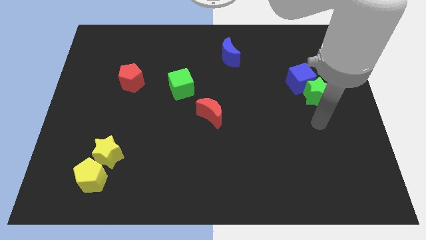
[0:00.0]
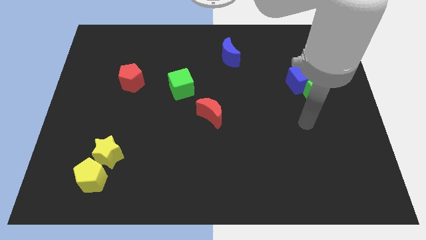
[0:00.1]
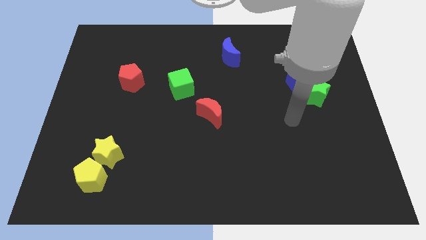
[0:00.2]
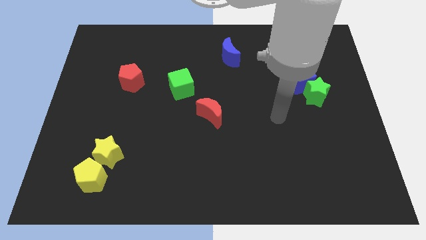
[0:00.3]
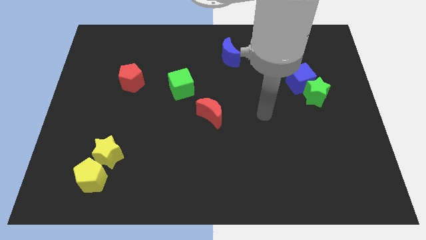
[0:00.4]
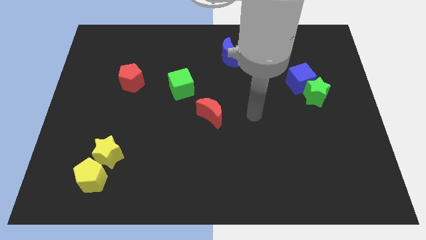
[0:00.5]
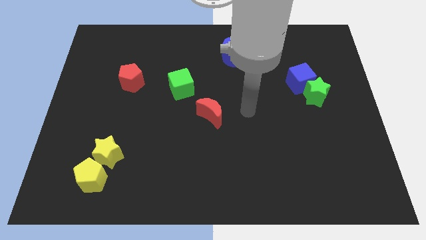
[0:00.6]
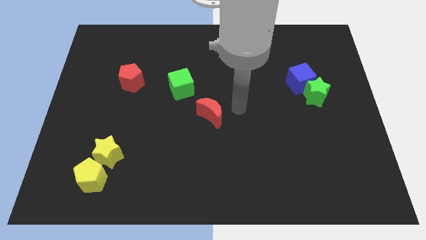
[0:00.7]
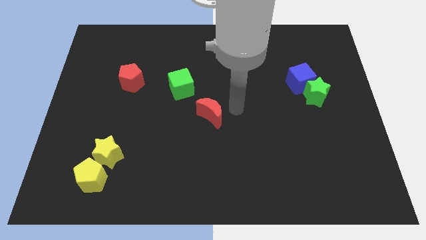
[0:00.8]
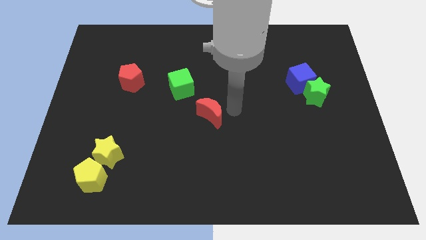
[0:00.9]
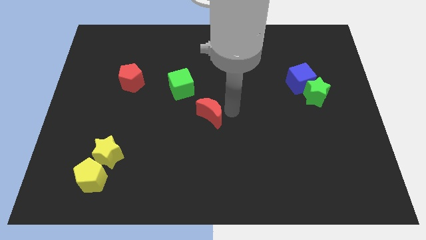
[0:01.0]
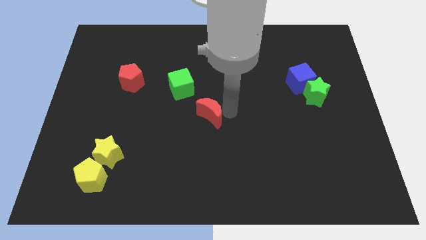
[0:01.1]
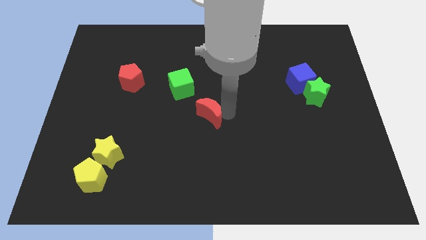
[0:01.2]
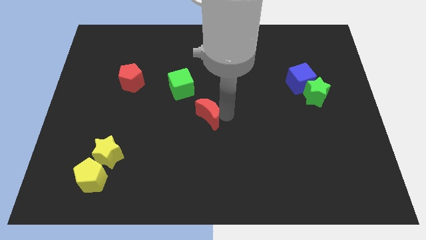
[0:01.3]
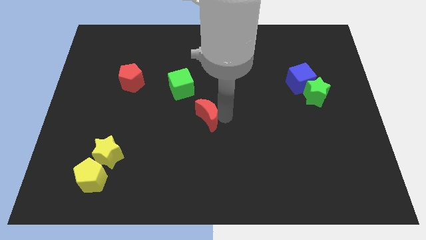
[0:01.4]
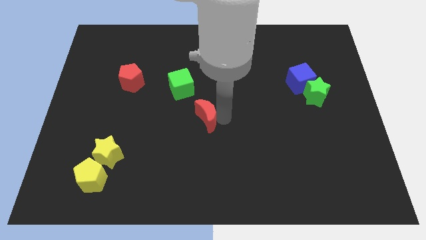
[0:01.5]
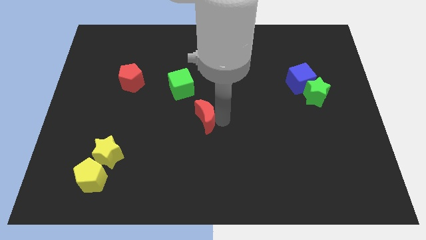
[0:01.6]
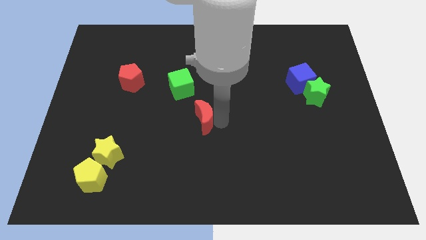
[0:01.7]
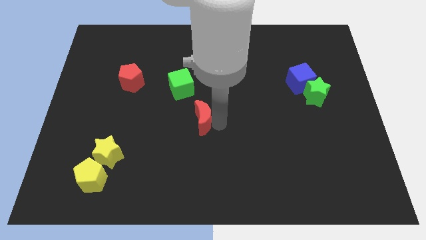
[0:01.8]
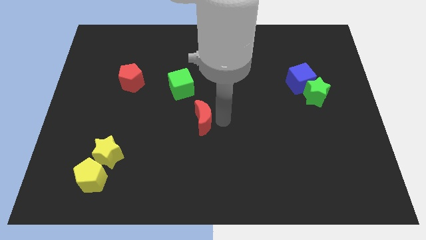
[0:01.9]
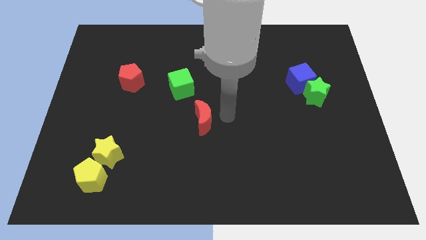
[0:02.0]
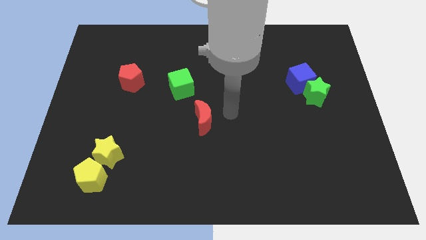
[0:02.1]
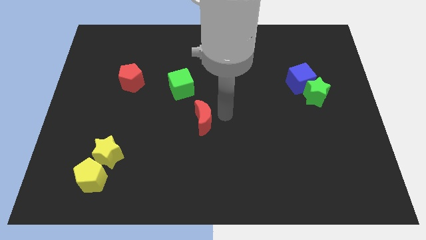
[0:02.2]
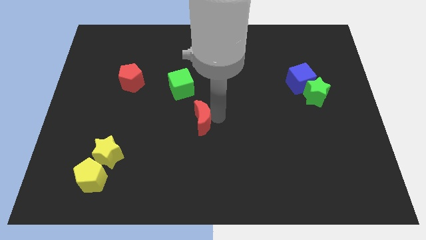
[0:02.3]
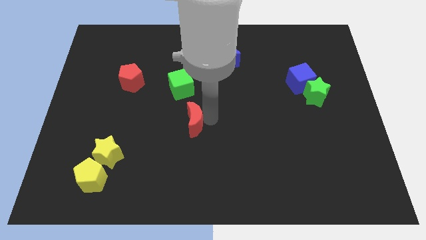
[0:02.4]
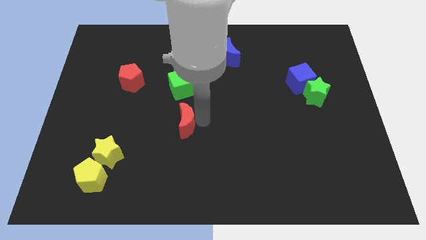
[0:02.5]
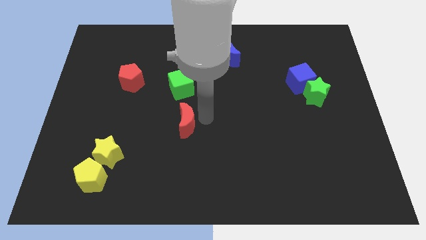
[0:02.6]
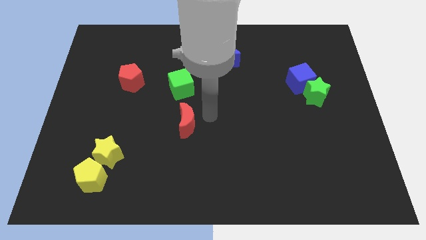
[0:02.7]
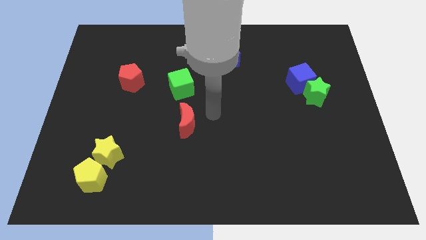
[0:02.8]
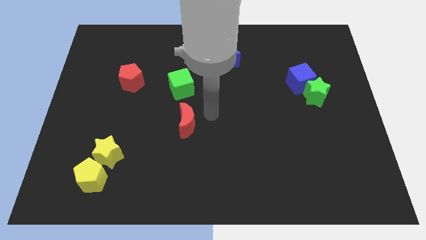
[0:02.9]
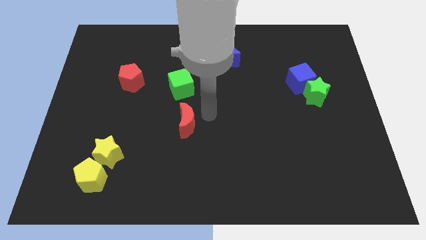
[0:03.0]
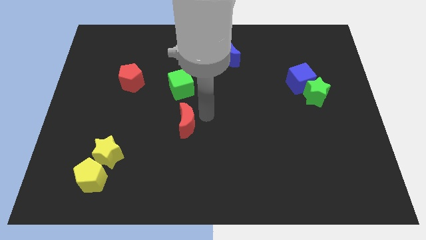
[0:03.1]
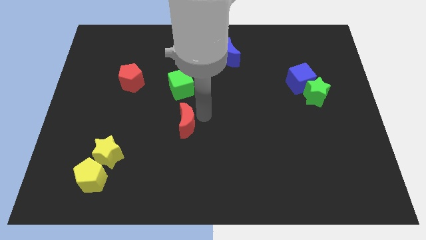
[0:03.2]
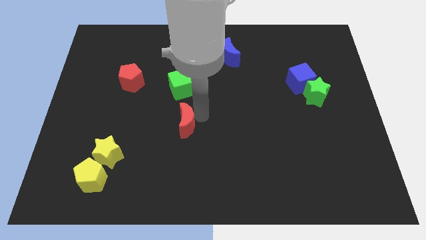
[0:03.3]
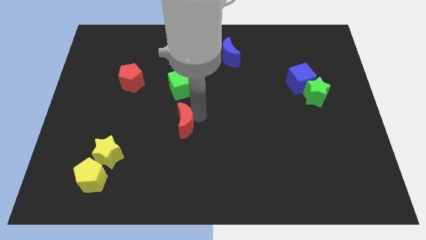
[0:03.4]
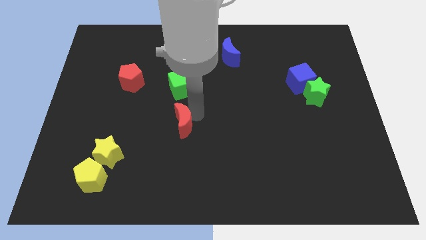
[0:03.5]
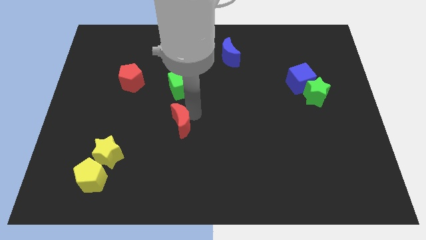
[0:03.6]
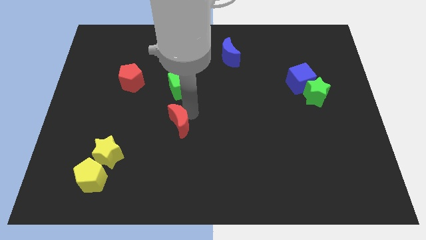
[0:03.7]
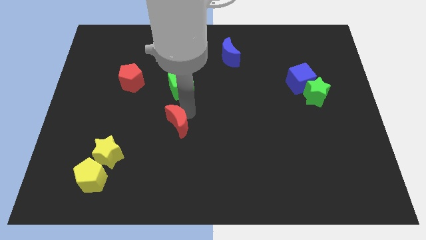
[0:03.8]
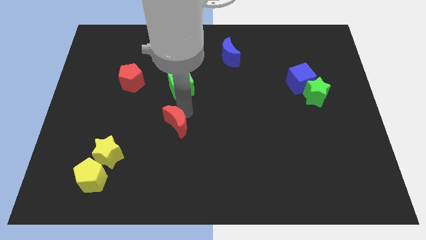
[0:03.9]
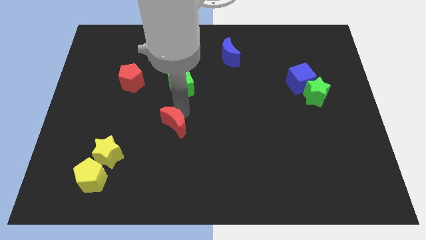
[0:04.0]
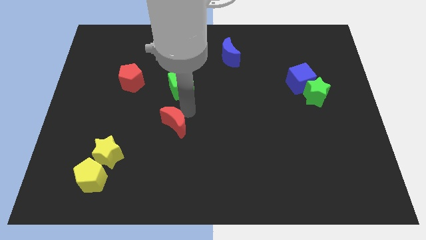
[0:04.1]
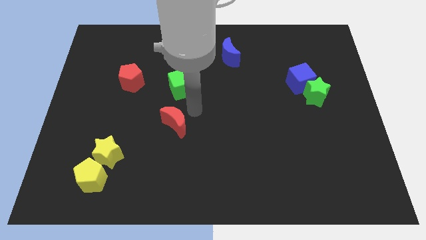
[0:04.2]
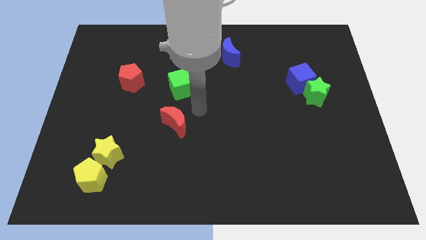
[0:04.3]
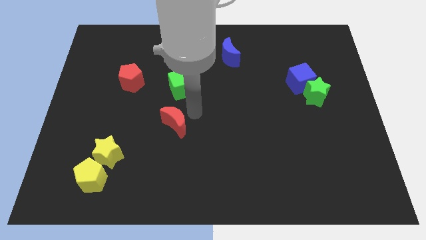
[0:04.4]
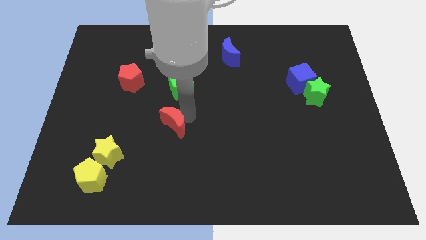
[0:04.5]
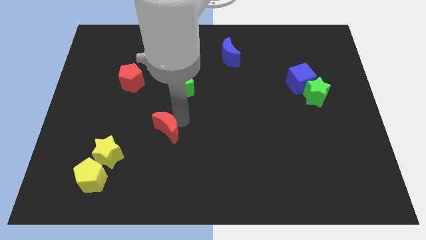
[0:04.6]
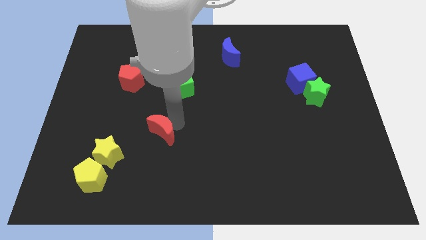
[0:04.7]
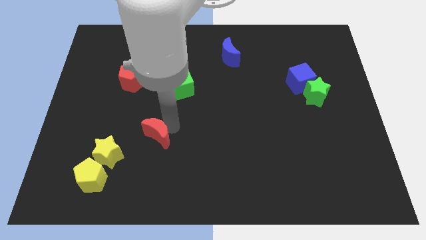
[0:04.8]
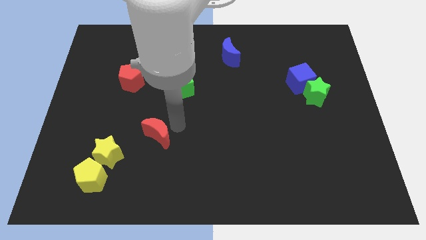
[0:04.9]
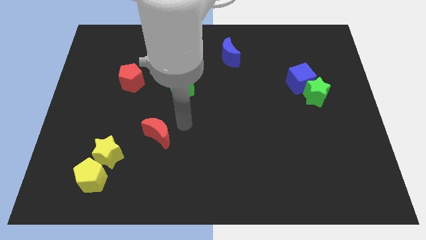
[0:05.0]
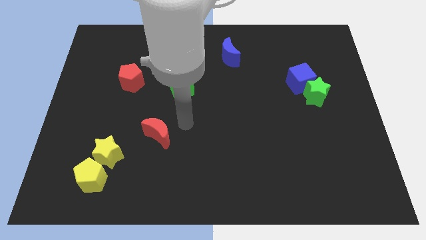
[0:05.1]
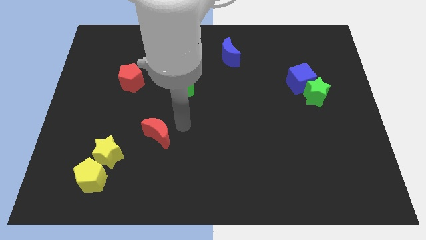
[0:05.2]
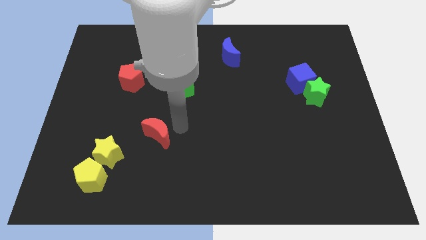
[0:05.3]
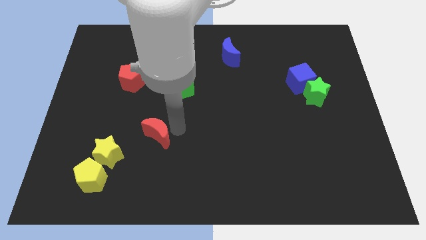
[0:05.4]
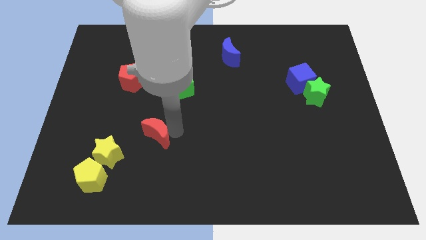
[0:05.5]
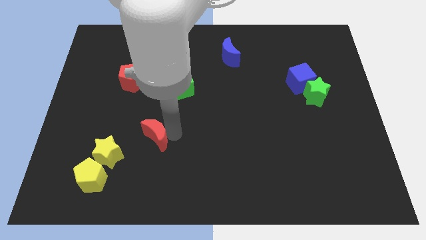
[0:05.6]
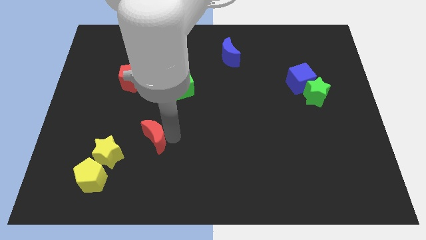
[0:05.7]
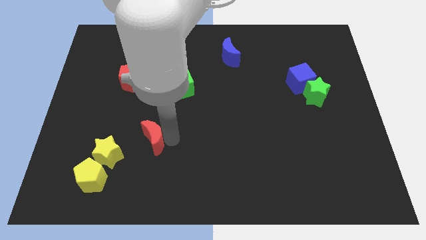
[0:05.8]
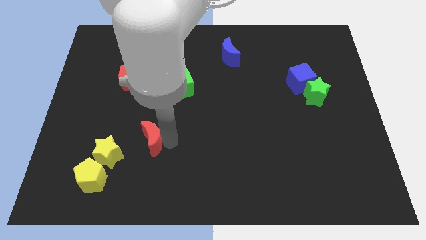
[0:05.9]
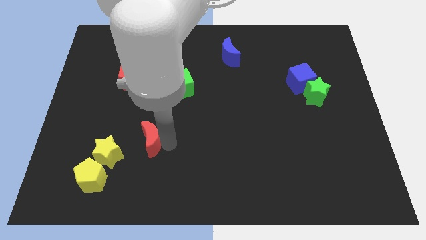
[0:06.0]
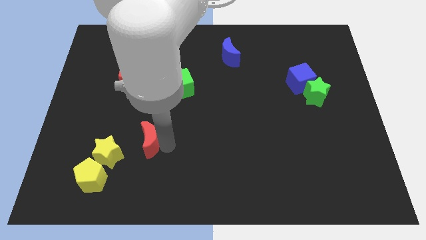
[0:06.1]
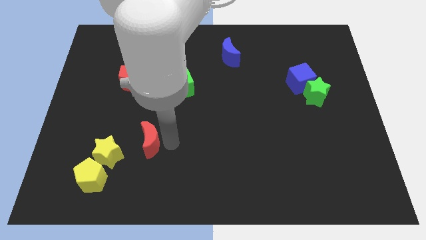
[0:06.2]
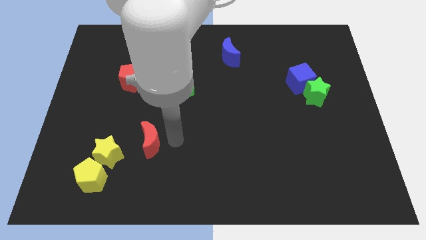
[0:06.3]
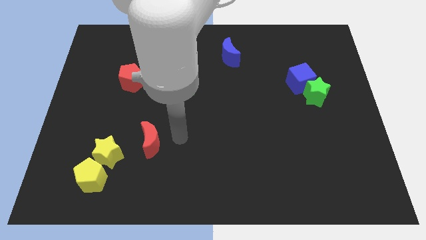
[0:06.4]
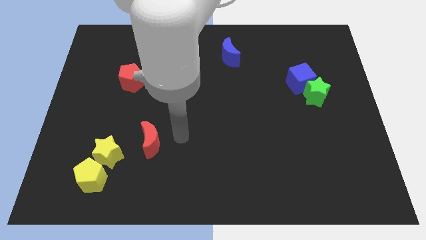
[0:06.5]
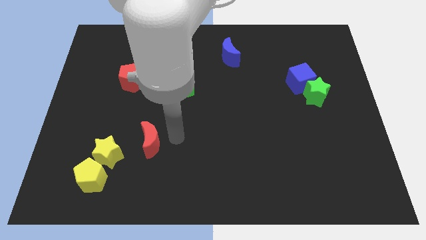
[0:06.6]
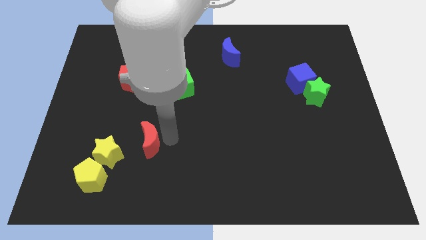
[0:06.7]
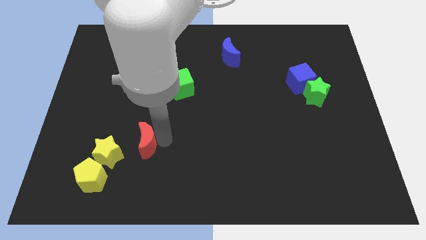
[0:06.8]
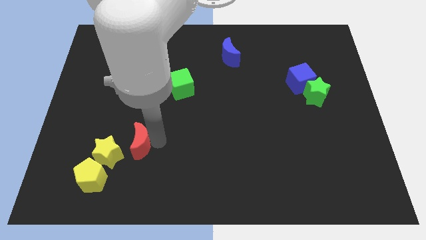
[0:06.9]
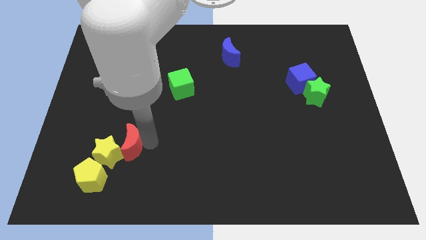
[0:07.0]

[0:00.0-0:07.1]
push the red moon close to the yellow star

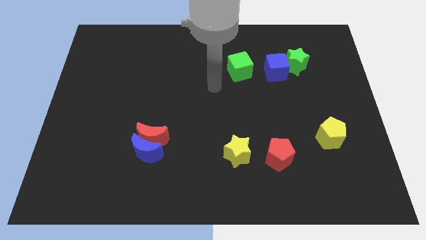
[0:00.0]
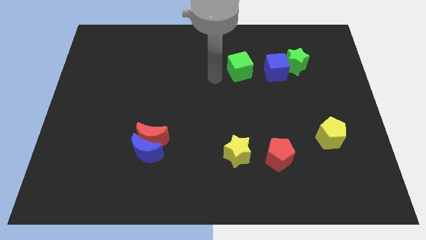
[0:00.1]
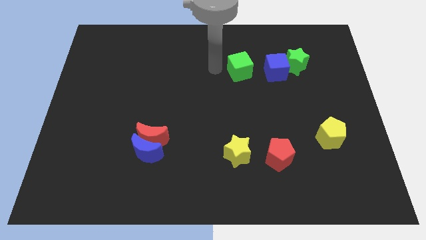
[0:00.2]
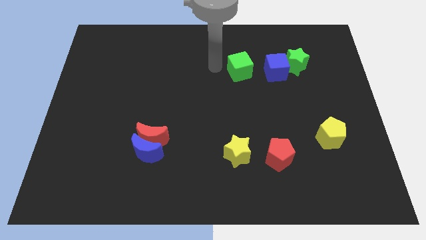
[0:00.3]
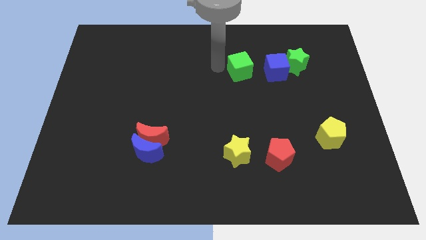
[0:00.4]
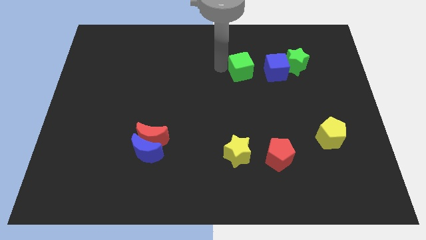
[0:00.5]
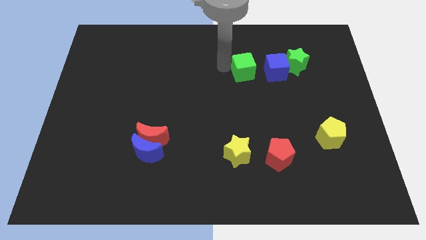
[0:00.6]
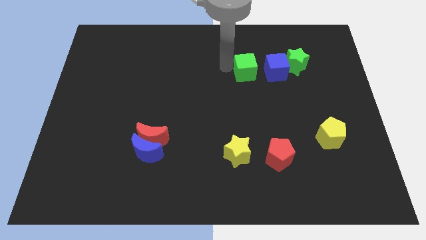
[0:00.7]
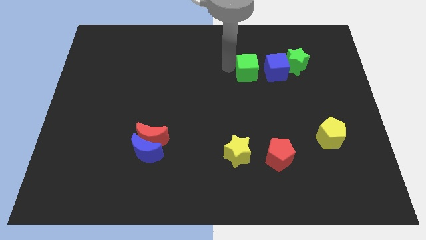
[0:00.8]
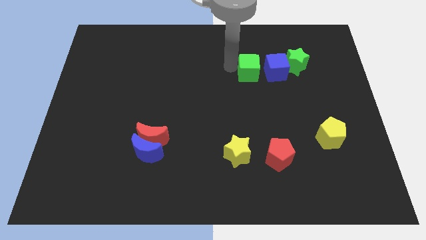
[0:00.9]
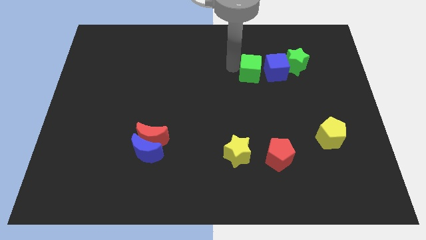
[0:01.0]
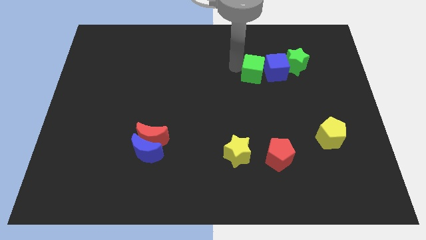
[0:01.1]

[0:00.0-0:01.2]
slide the green cube close to the blue cube
